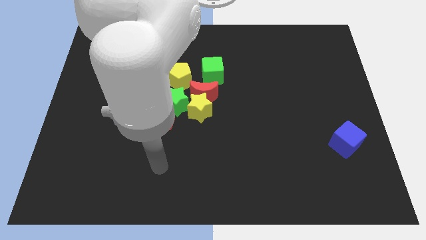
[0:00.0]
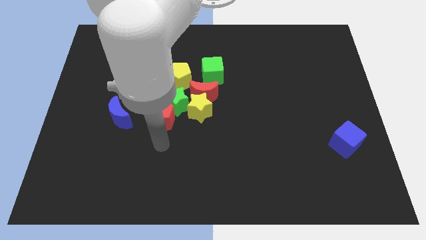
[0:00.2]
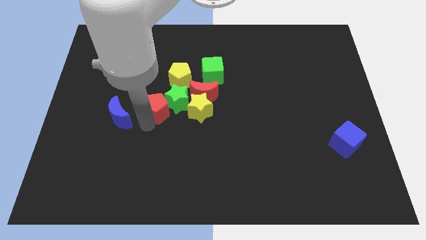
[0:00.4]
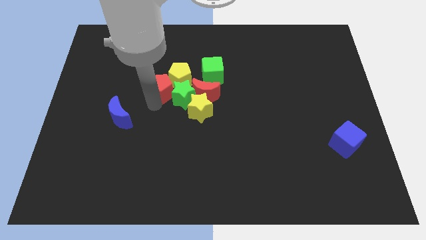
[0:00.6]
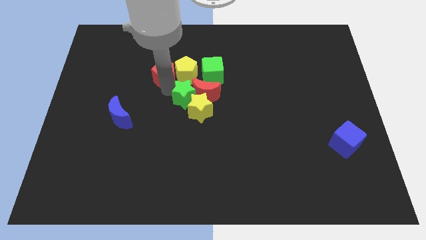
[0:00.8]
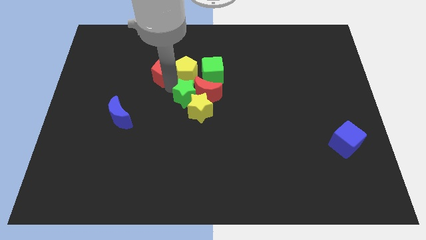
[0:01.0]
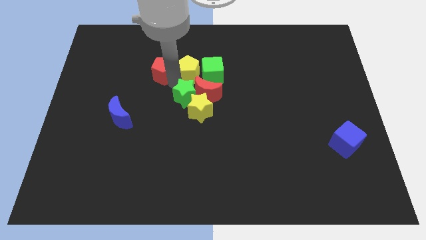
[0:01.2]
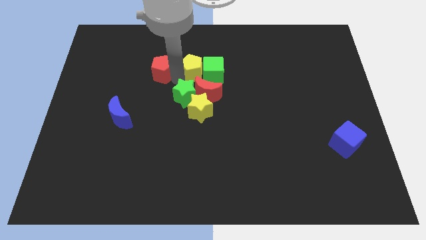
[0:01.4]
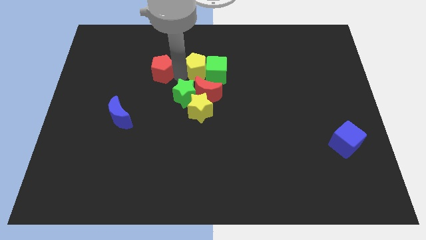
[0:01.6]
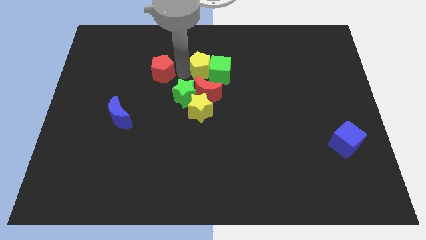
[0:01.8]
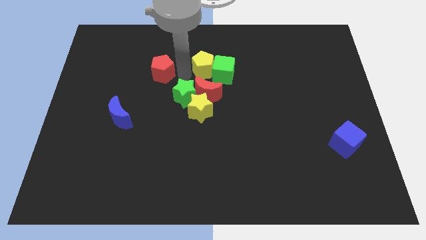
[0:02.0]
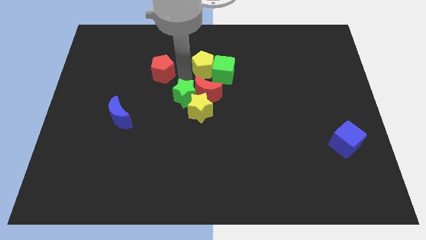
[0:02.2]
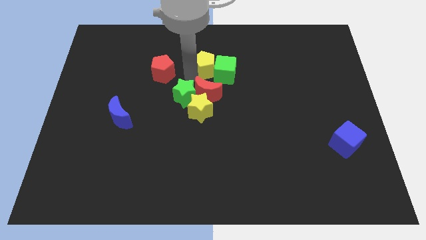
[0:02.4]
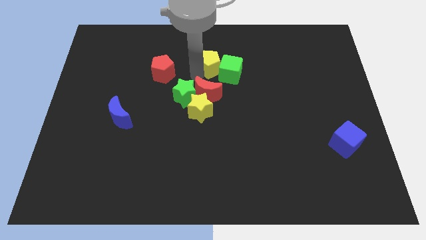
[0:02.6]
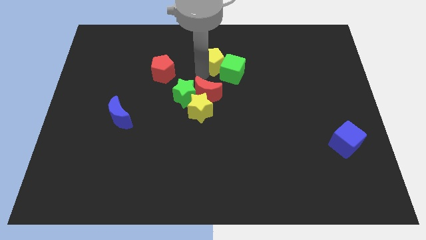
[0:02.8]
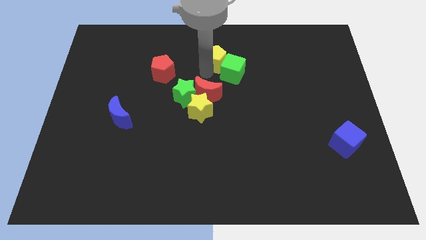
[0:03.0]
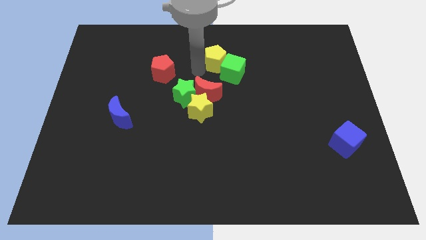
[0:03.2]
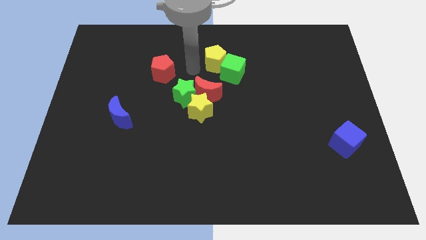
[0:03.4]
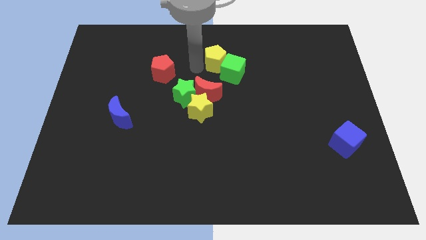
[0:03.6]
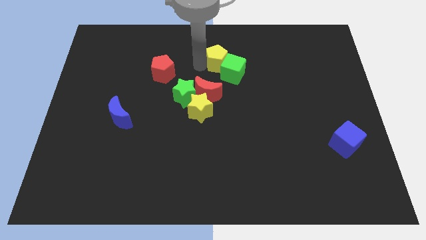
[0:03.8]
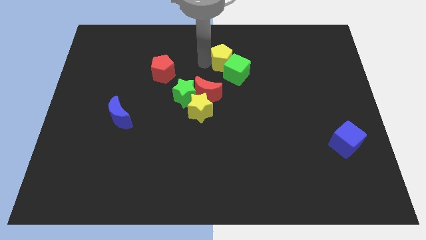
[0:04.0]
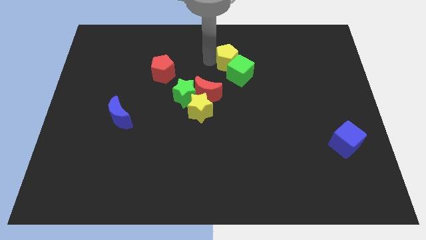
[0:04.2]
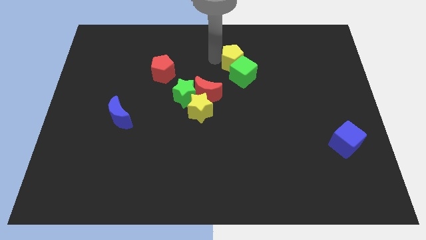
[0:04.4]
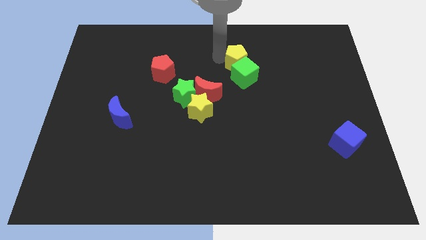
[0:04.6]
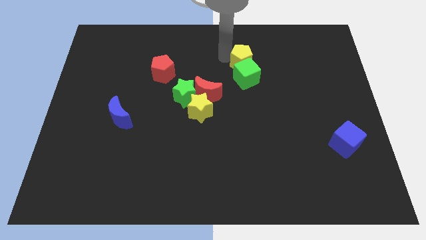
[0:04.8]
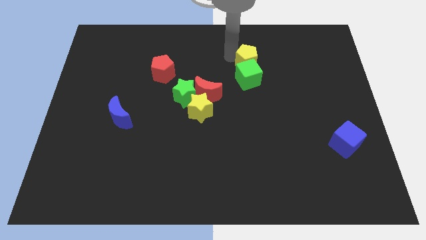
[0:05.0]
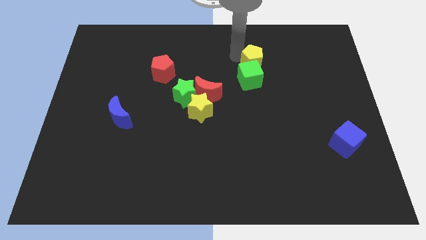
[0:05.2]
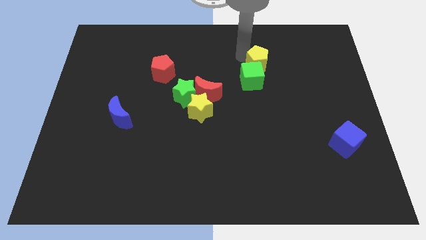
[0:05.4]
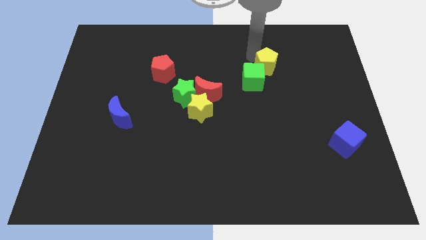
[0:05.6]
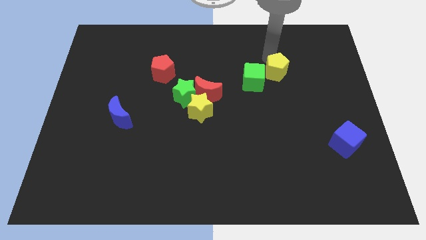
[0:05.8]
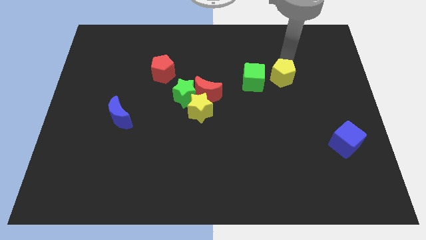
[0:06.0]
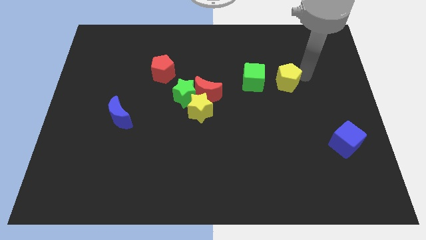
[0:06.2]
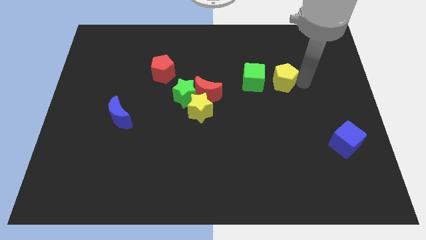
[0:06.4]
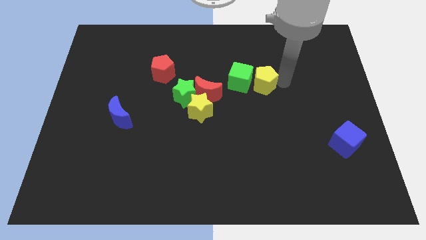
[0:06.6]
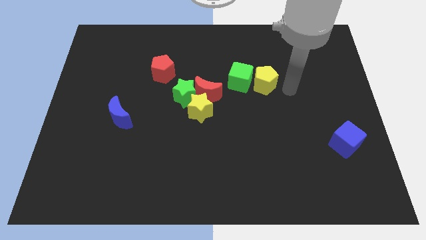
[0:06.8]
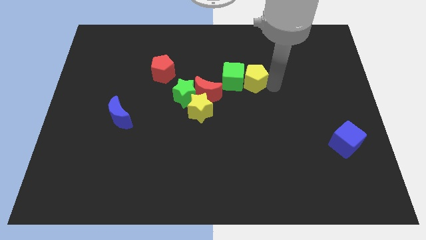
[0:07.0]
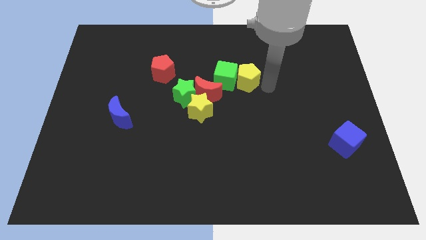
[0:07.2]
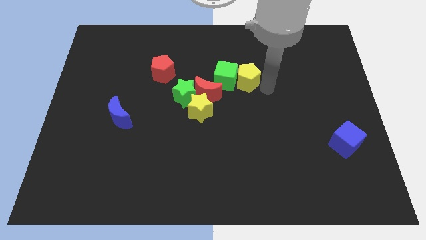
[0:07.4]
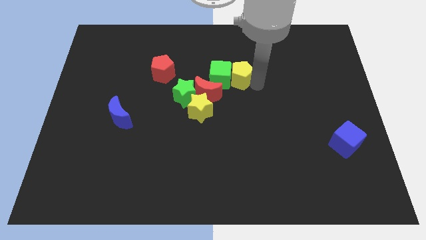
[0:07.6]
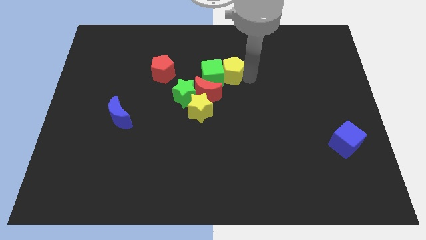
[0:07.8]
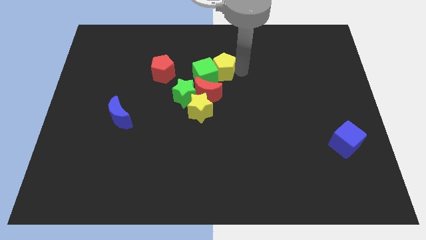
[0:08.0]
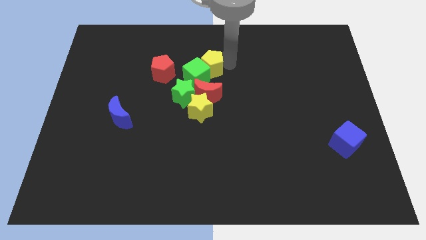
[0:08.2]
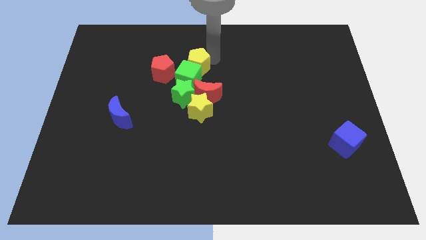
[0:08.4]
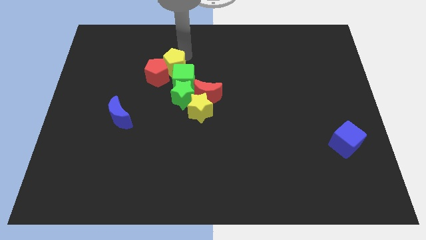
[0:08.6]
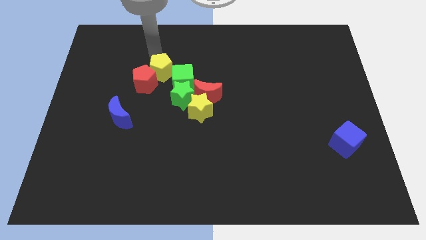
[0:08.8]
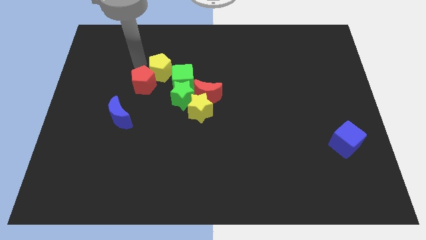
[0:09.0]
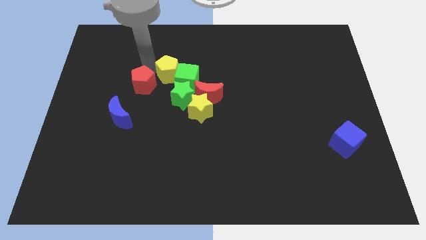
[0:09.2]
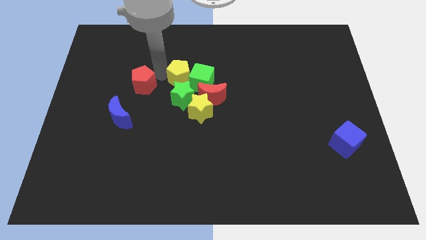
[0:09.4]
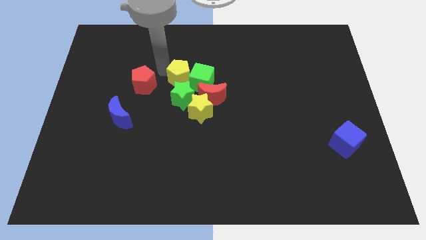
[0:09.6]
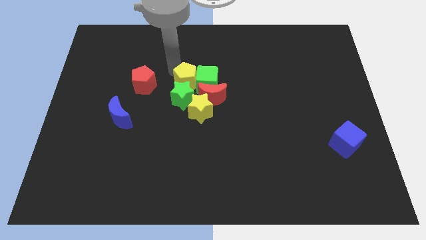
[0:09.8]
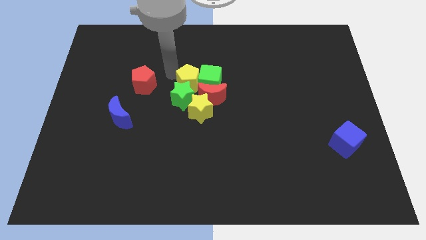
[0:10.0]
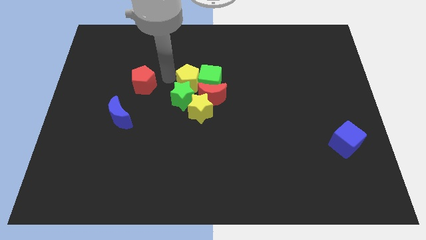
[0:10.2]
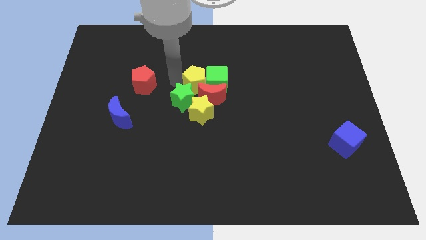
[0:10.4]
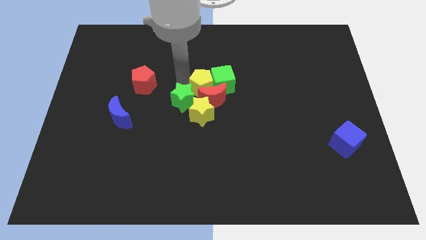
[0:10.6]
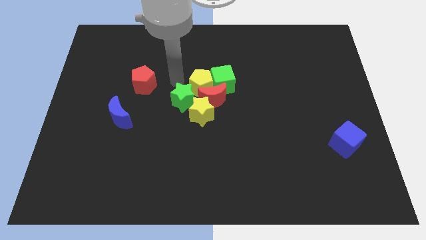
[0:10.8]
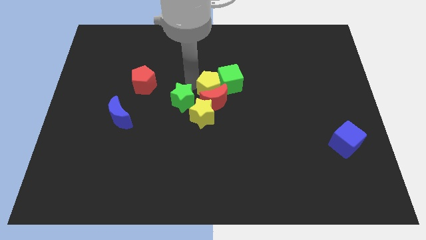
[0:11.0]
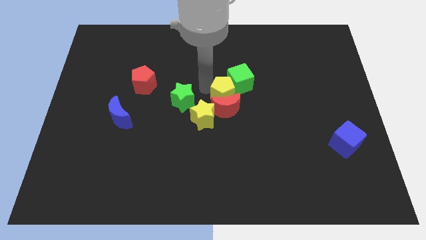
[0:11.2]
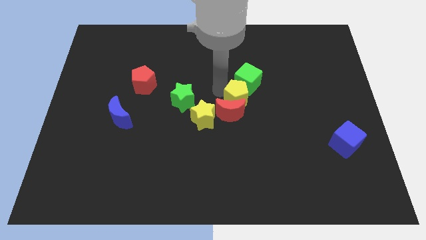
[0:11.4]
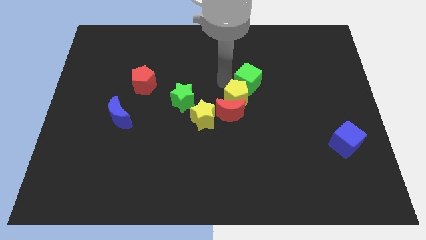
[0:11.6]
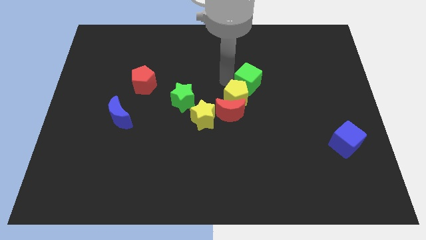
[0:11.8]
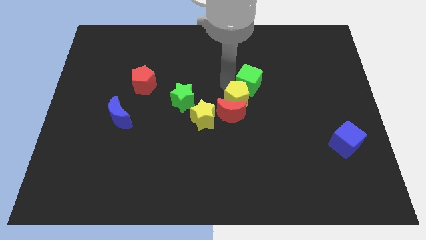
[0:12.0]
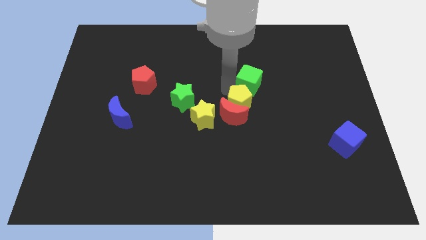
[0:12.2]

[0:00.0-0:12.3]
put the yellow pentagon to the right of the yellow star

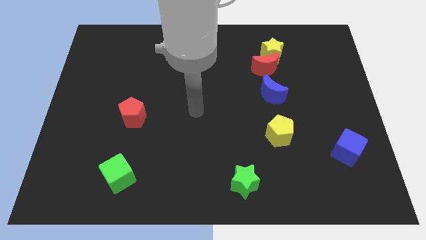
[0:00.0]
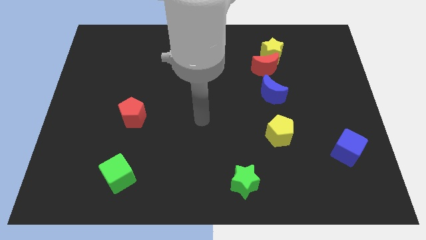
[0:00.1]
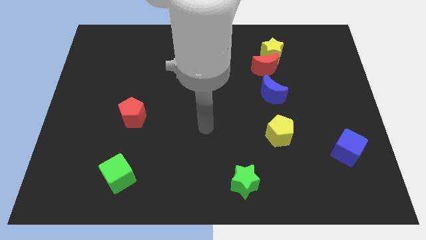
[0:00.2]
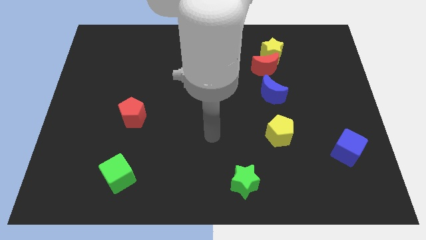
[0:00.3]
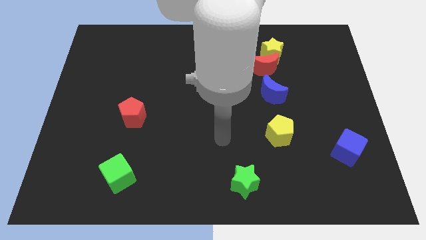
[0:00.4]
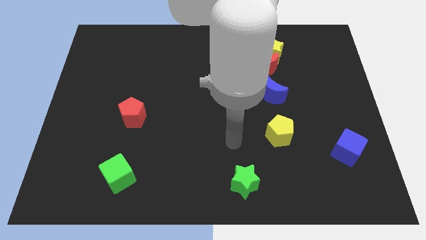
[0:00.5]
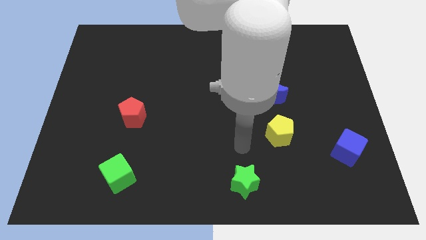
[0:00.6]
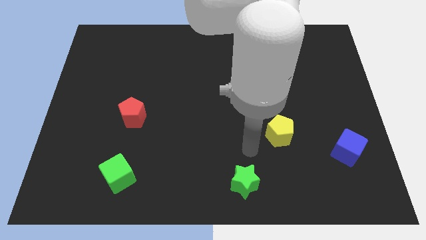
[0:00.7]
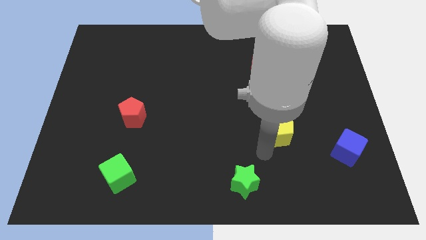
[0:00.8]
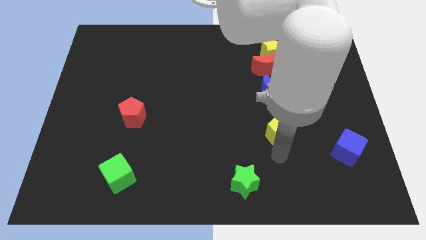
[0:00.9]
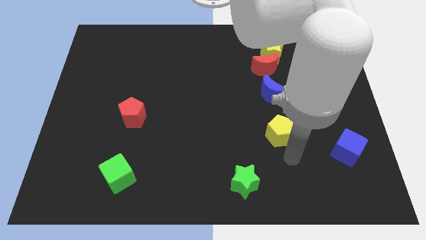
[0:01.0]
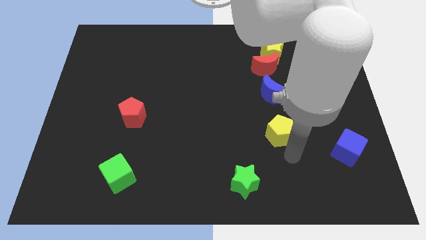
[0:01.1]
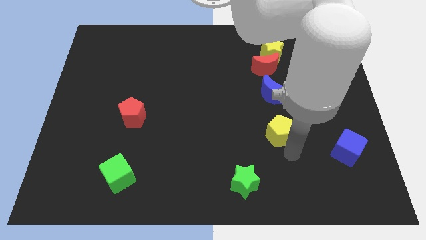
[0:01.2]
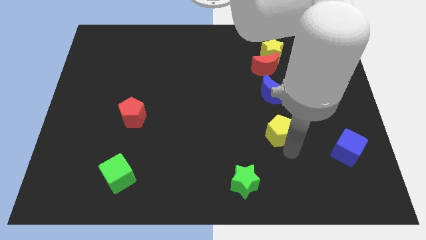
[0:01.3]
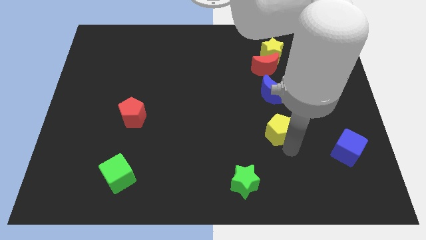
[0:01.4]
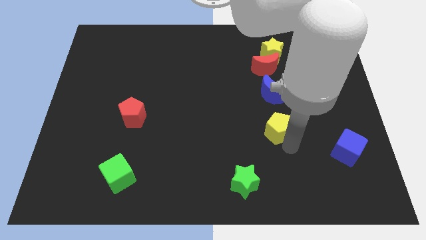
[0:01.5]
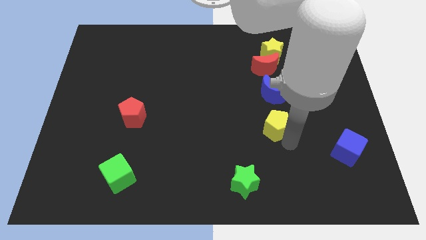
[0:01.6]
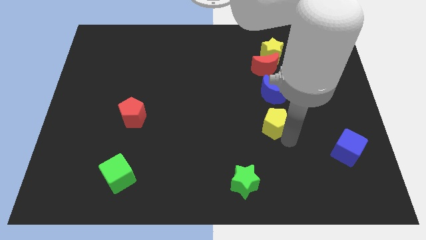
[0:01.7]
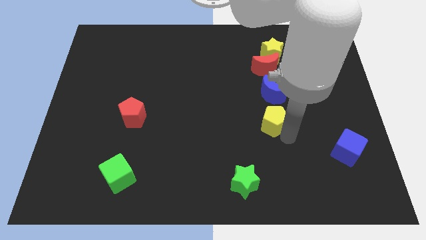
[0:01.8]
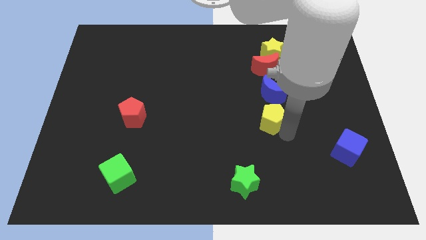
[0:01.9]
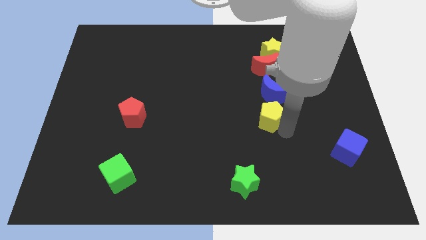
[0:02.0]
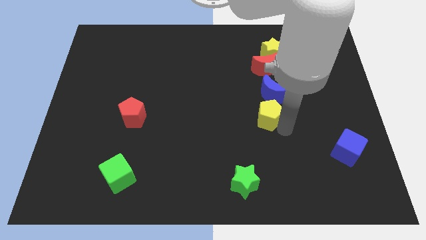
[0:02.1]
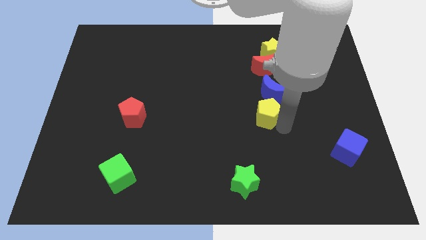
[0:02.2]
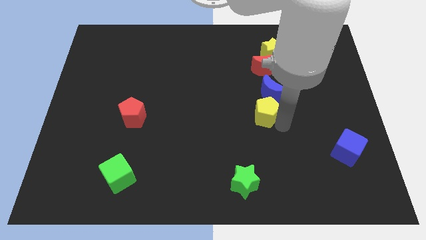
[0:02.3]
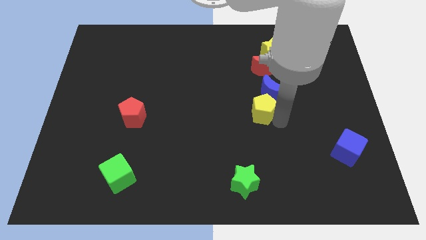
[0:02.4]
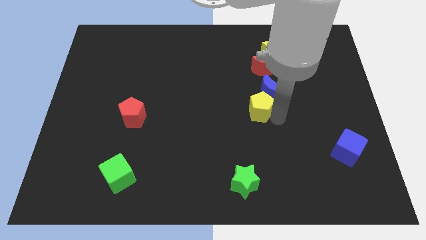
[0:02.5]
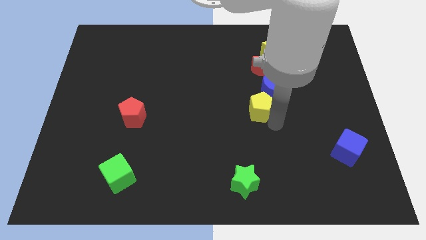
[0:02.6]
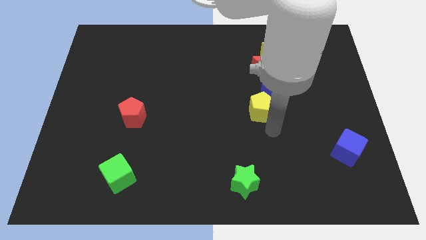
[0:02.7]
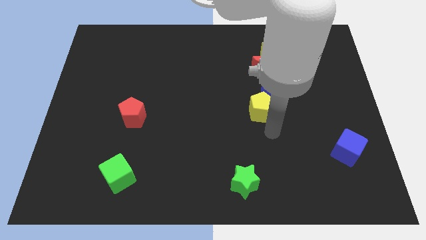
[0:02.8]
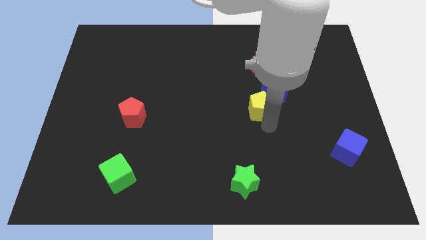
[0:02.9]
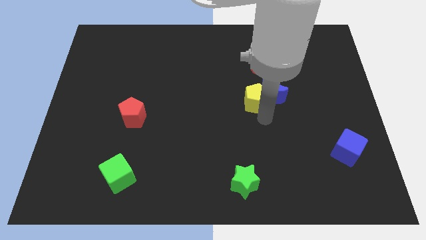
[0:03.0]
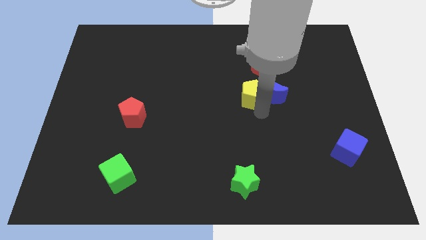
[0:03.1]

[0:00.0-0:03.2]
push the yellow pentagon to the bottom left of the red moon
